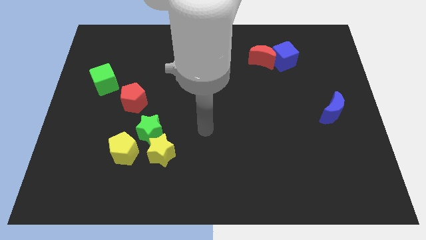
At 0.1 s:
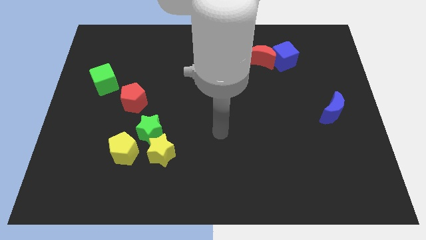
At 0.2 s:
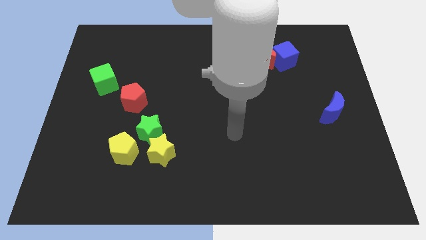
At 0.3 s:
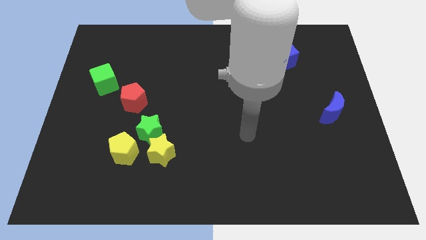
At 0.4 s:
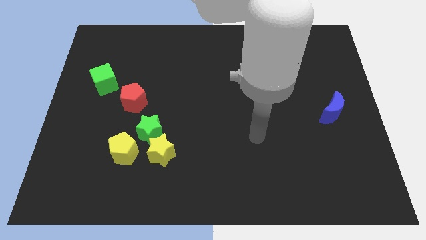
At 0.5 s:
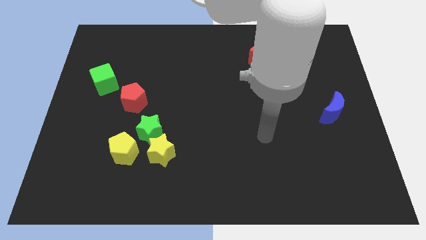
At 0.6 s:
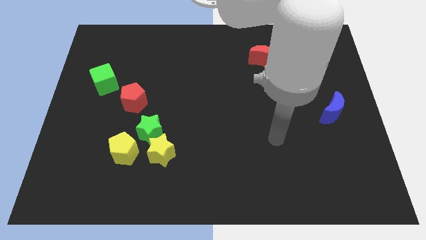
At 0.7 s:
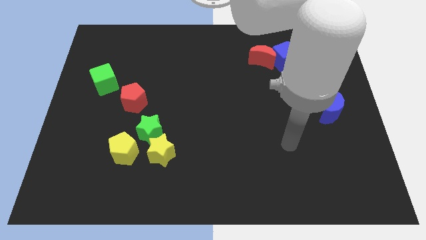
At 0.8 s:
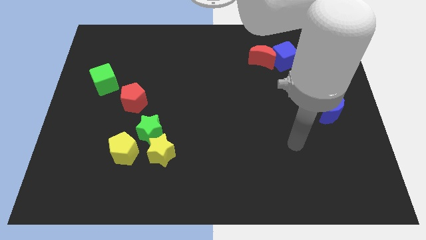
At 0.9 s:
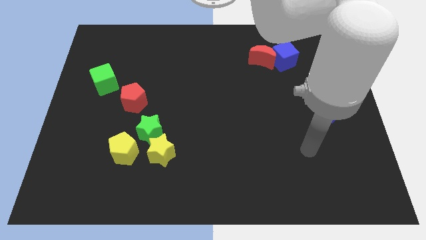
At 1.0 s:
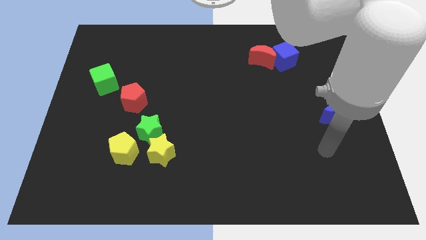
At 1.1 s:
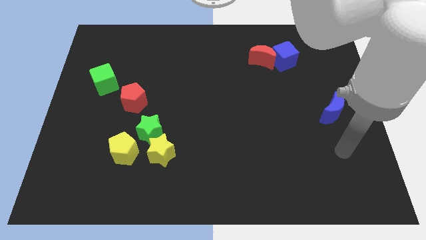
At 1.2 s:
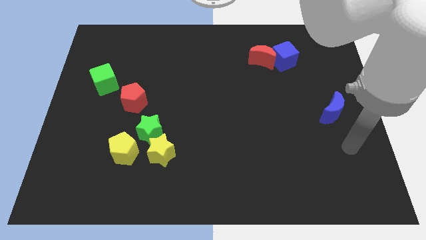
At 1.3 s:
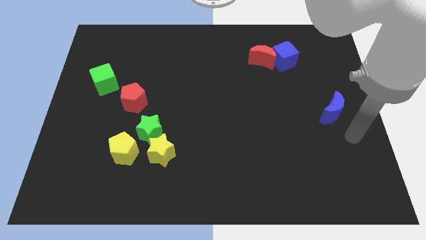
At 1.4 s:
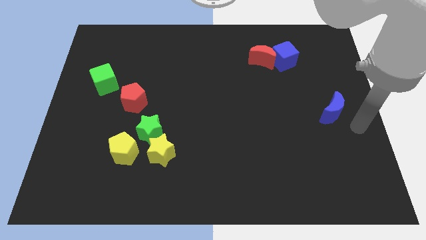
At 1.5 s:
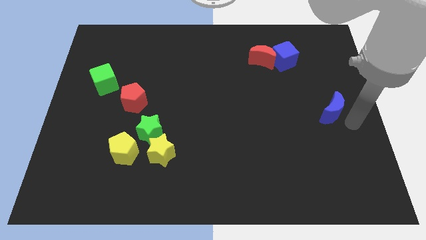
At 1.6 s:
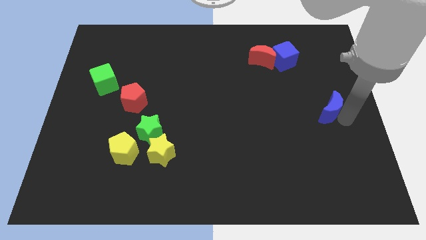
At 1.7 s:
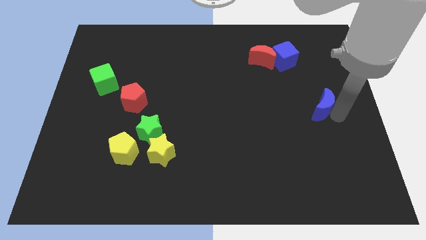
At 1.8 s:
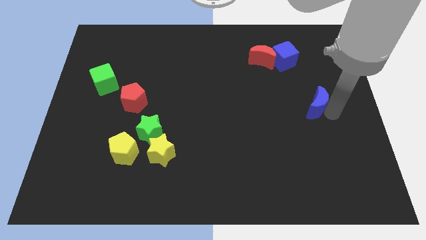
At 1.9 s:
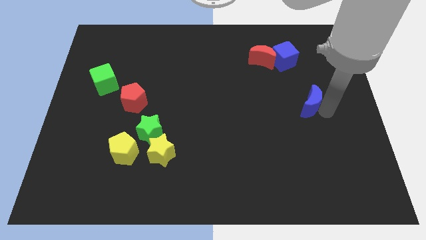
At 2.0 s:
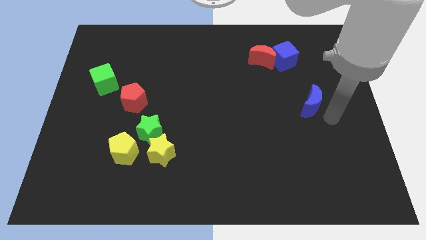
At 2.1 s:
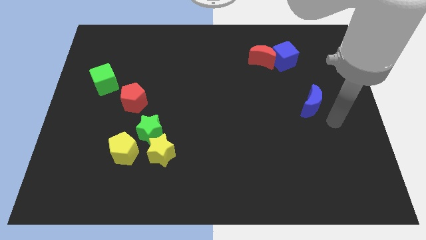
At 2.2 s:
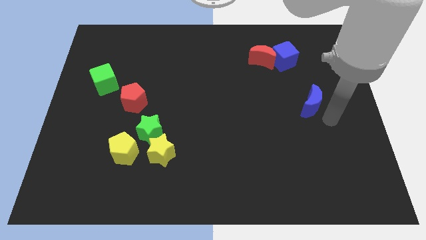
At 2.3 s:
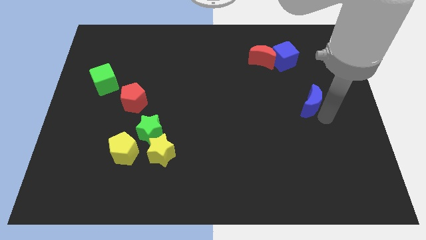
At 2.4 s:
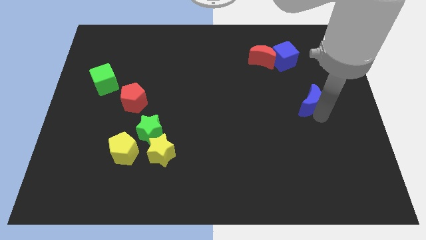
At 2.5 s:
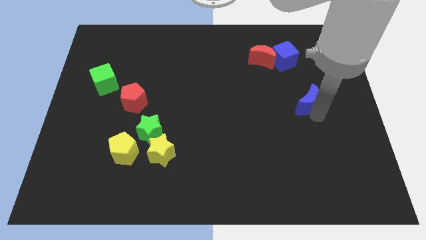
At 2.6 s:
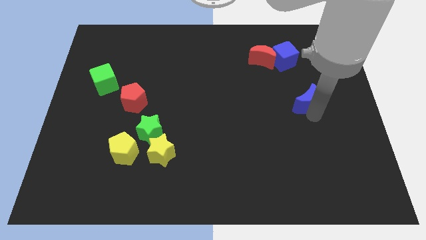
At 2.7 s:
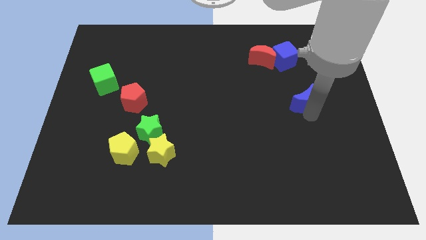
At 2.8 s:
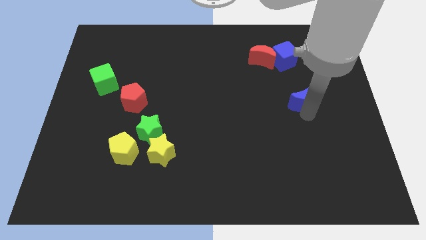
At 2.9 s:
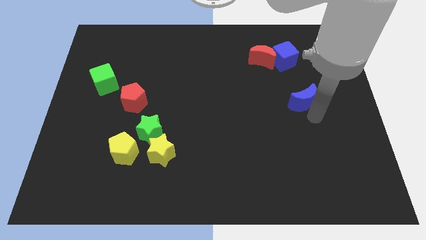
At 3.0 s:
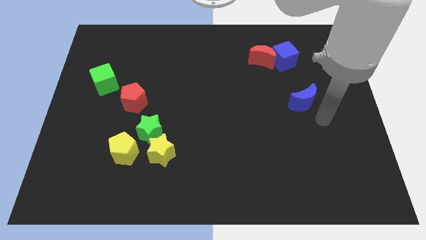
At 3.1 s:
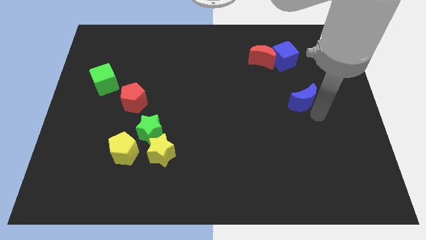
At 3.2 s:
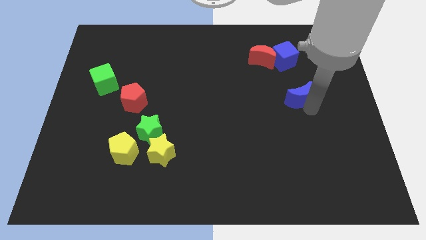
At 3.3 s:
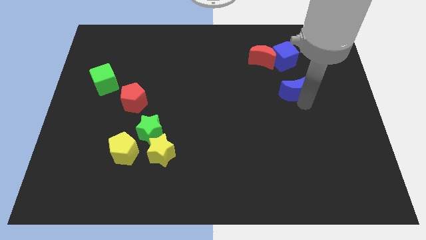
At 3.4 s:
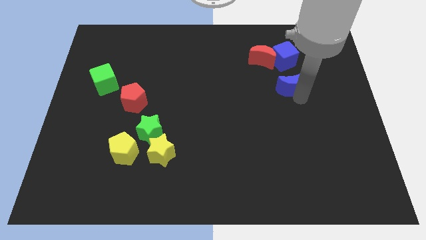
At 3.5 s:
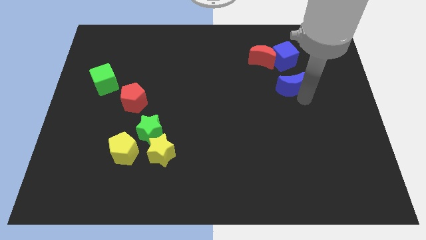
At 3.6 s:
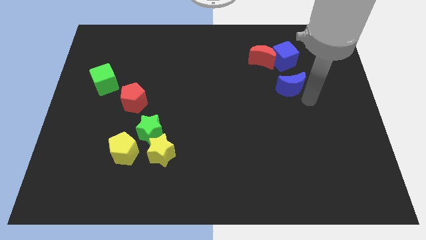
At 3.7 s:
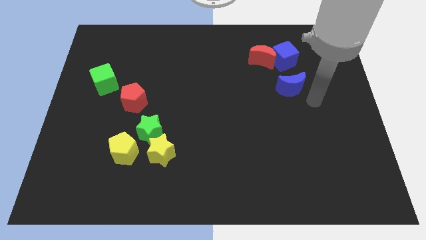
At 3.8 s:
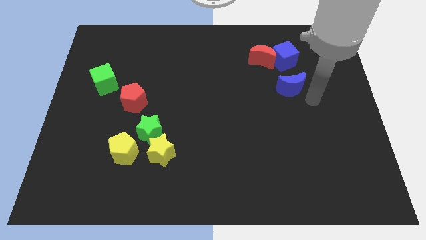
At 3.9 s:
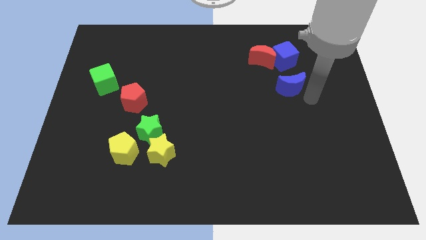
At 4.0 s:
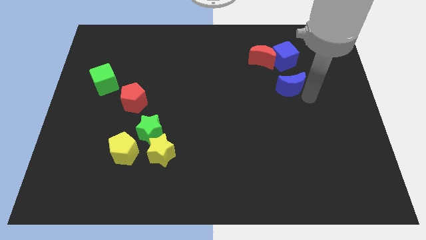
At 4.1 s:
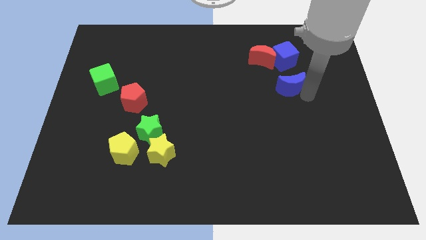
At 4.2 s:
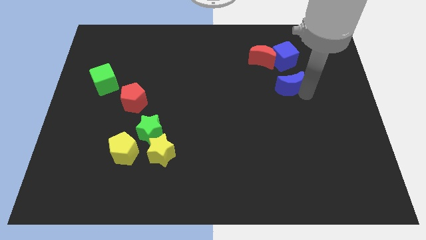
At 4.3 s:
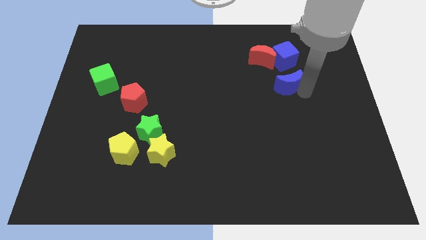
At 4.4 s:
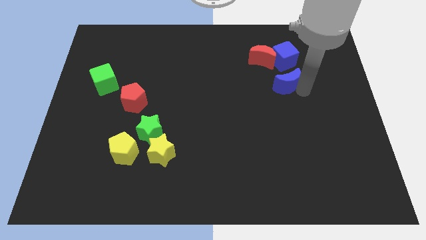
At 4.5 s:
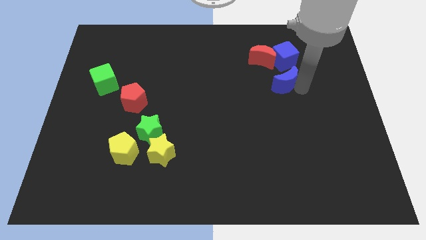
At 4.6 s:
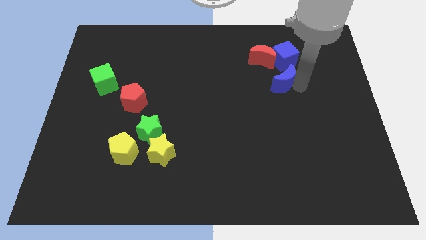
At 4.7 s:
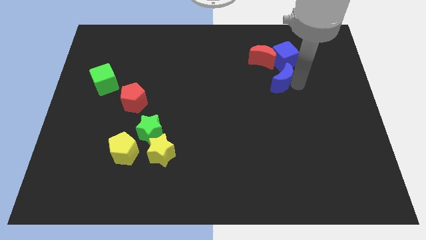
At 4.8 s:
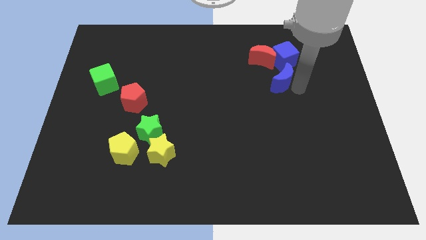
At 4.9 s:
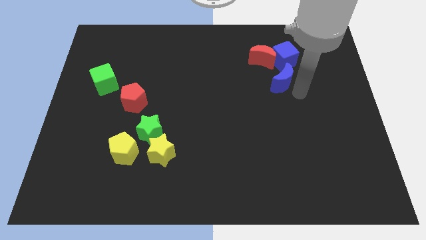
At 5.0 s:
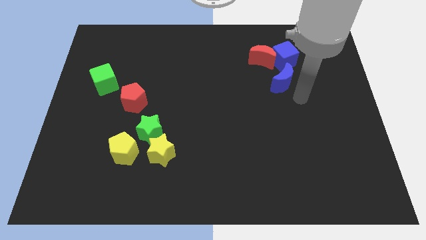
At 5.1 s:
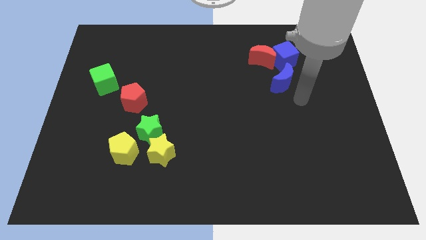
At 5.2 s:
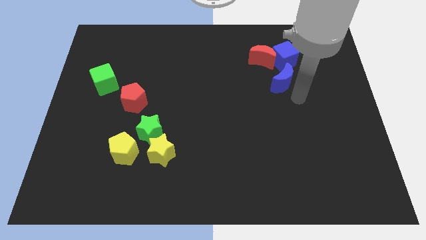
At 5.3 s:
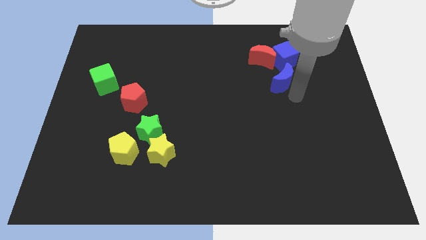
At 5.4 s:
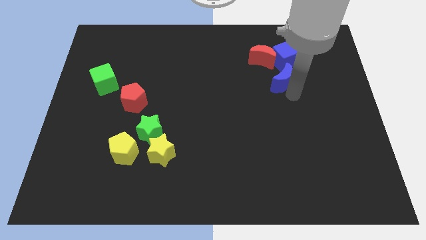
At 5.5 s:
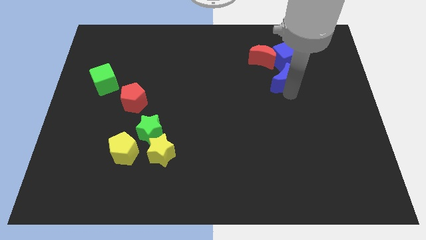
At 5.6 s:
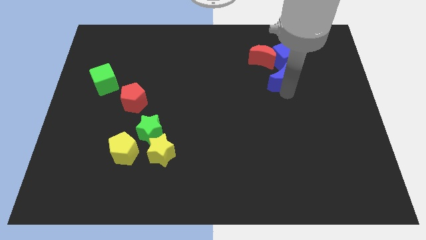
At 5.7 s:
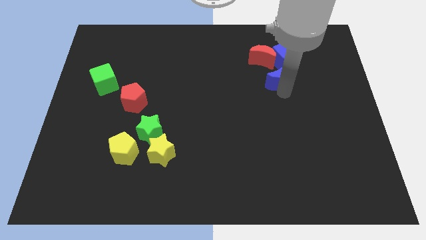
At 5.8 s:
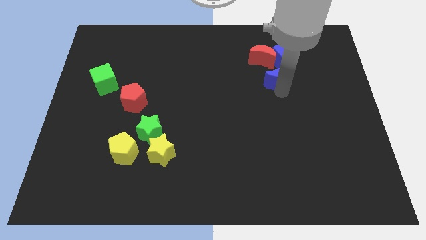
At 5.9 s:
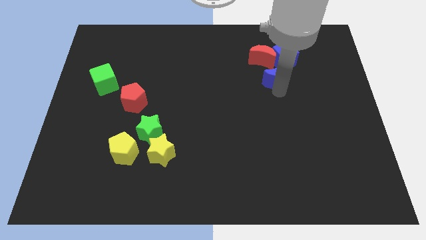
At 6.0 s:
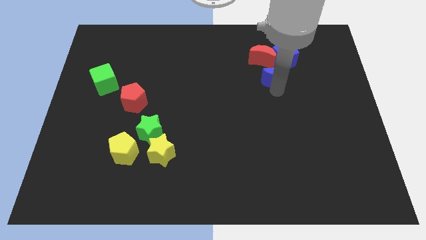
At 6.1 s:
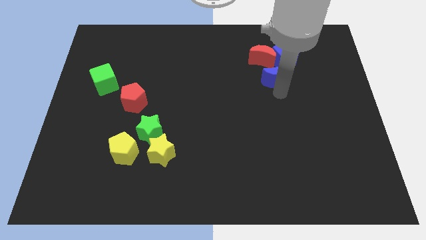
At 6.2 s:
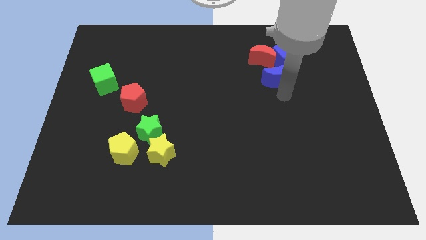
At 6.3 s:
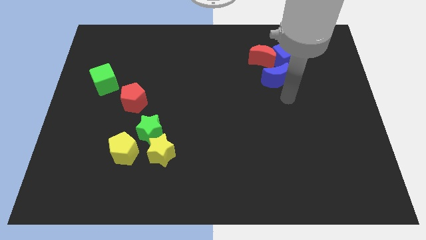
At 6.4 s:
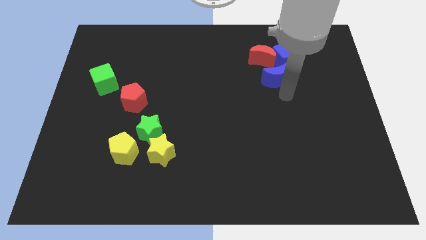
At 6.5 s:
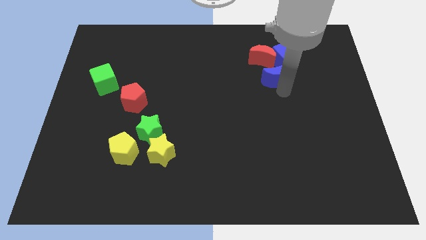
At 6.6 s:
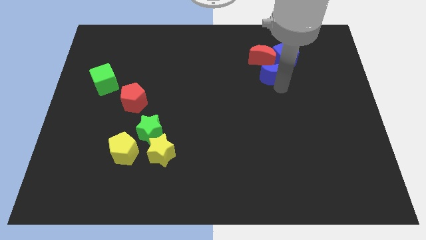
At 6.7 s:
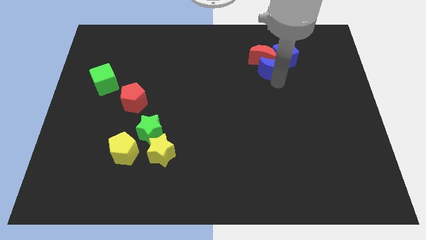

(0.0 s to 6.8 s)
slide the blue moon close to the red moon
